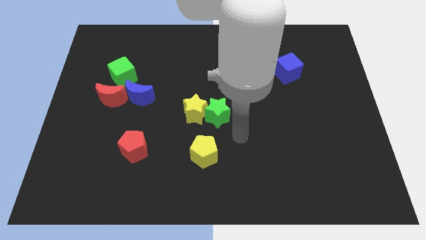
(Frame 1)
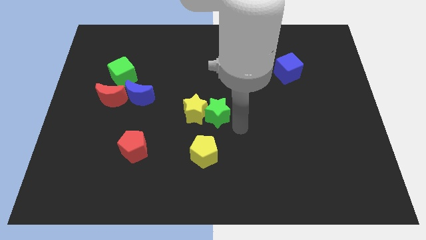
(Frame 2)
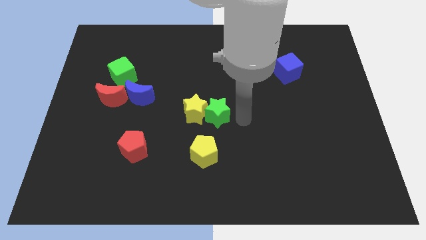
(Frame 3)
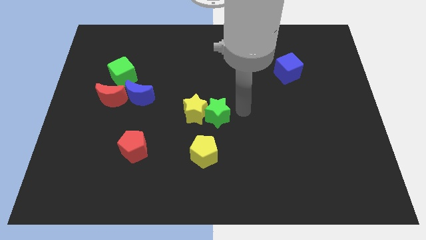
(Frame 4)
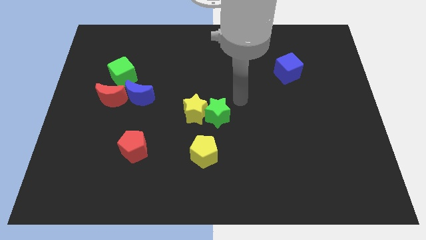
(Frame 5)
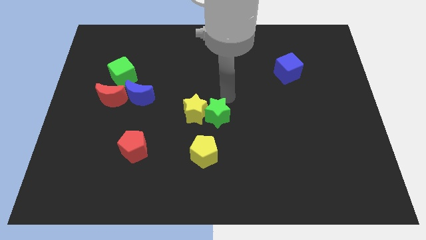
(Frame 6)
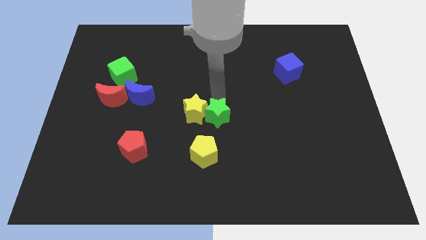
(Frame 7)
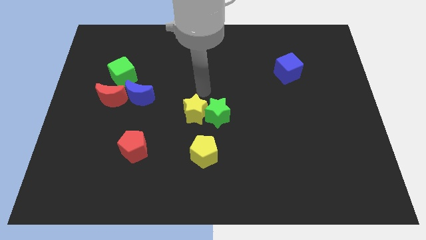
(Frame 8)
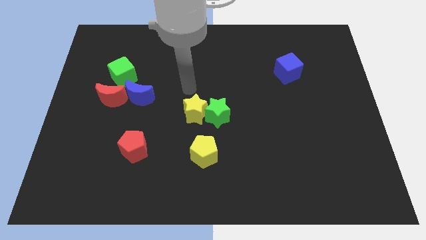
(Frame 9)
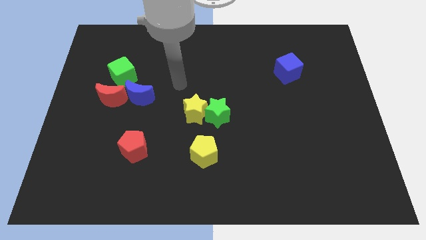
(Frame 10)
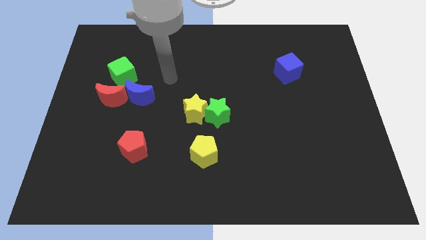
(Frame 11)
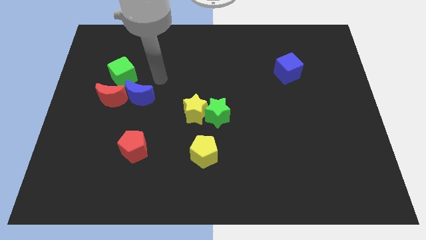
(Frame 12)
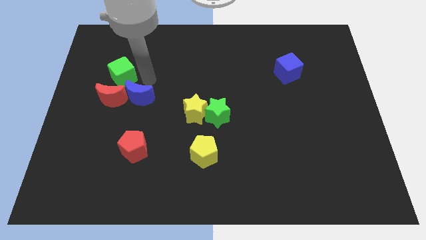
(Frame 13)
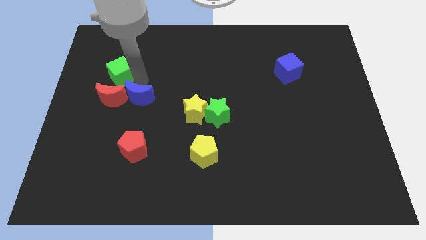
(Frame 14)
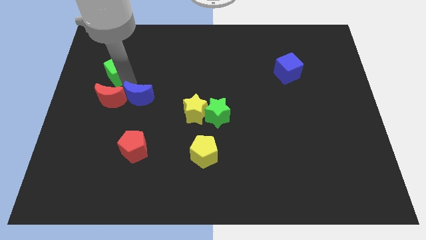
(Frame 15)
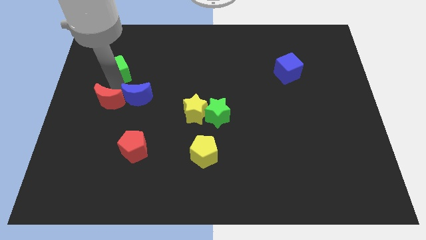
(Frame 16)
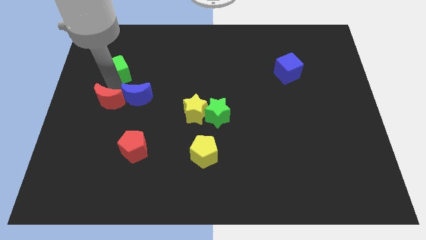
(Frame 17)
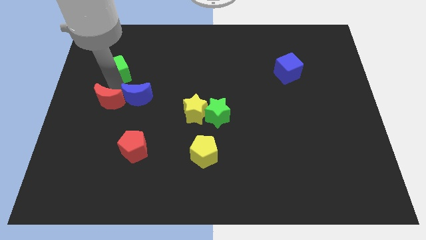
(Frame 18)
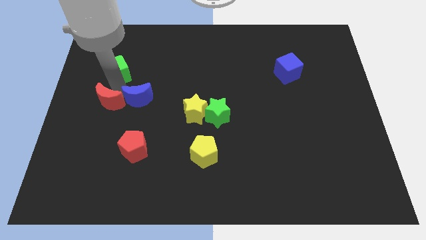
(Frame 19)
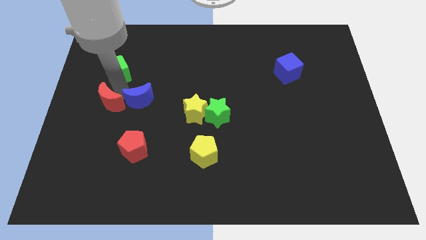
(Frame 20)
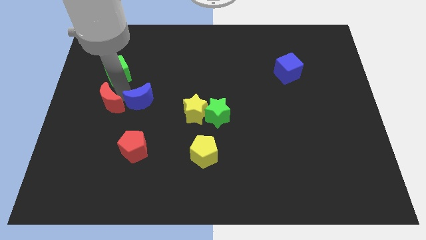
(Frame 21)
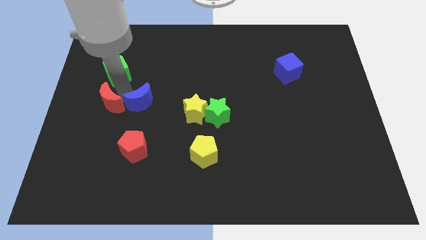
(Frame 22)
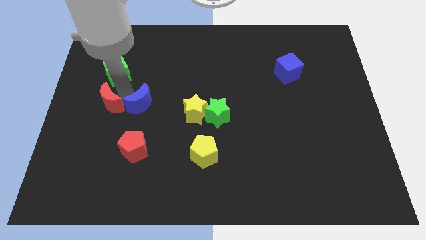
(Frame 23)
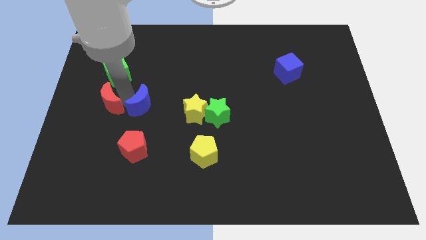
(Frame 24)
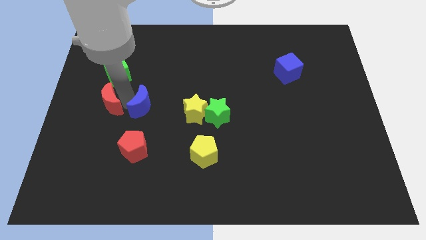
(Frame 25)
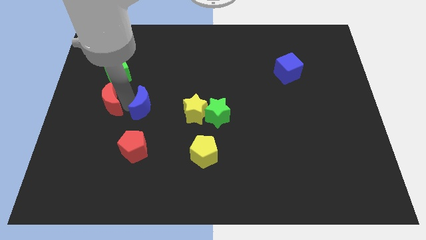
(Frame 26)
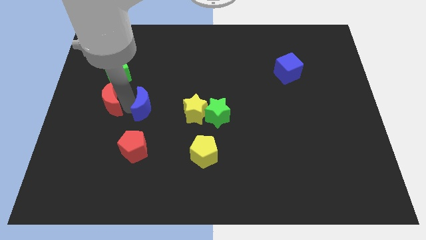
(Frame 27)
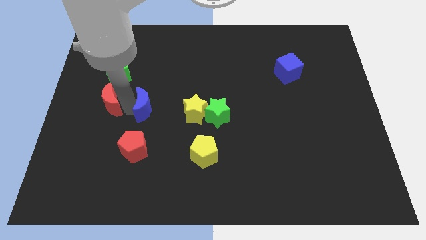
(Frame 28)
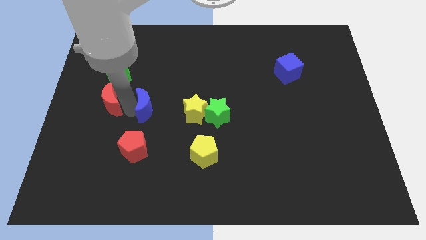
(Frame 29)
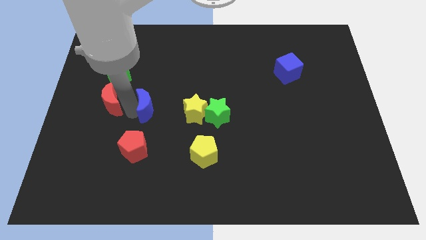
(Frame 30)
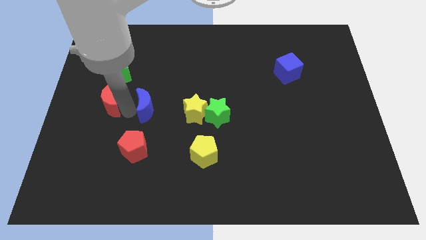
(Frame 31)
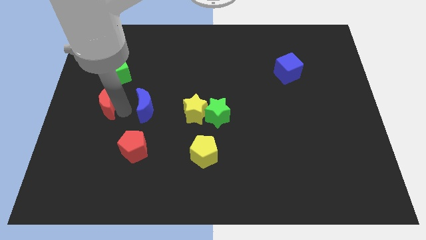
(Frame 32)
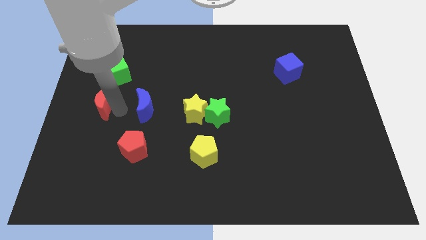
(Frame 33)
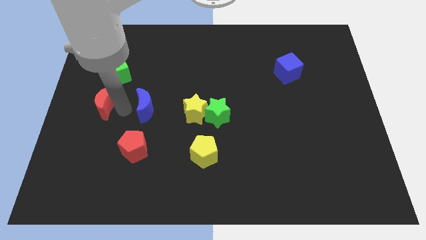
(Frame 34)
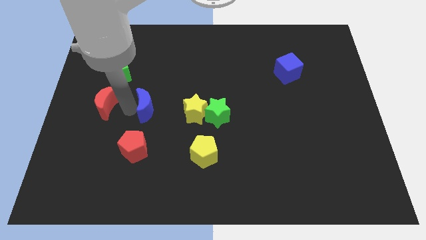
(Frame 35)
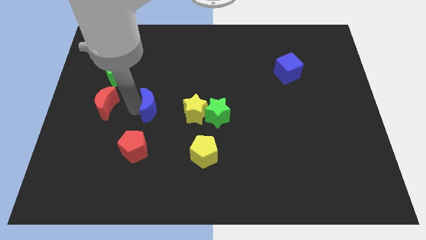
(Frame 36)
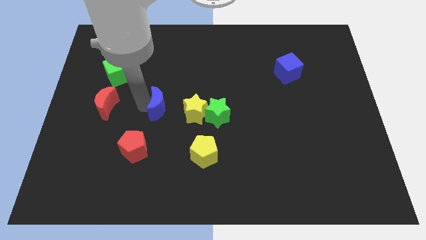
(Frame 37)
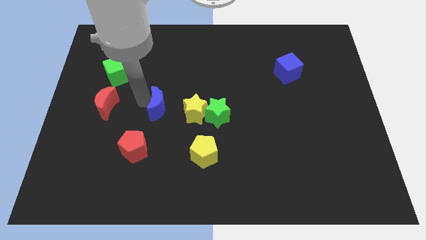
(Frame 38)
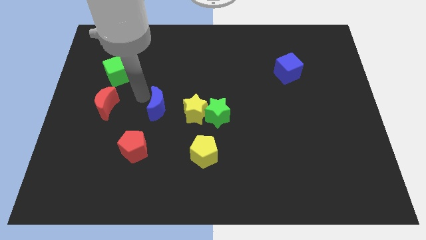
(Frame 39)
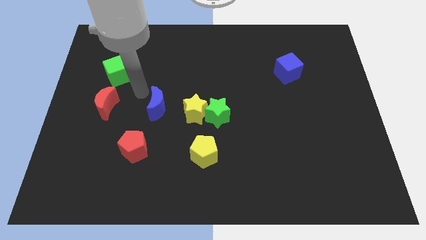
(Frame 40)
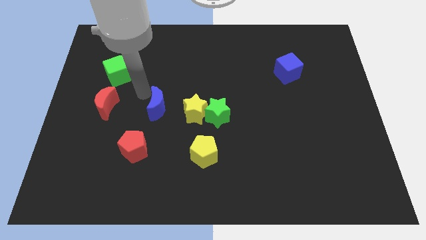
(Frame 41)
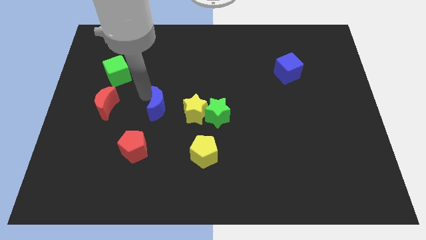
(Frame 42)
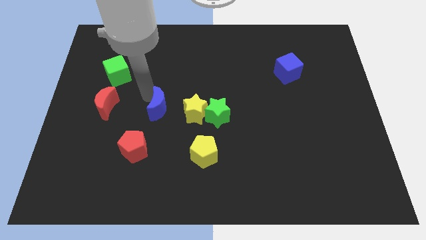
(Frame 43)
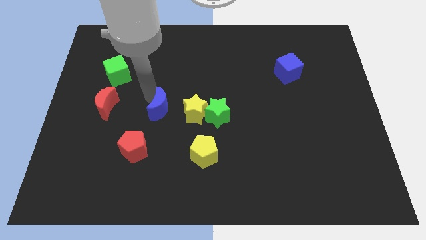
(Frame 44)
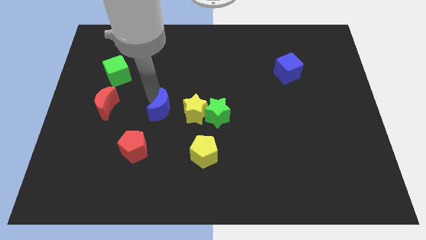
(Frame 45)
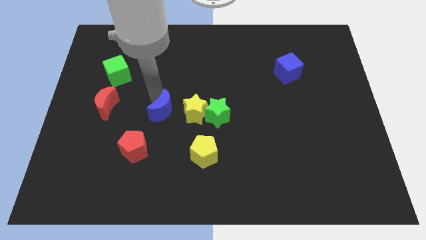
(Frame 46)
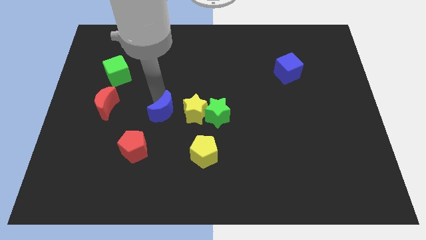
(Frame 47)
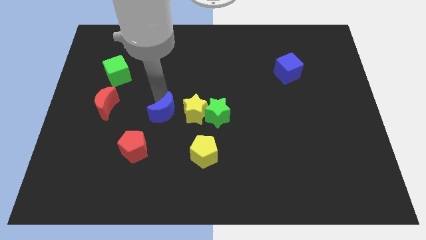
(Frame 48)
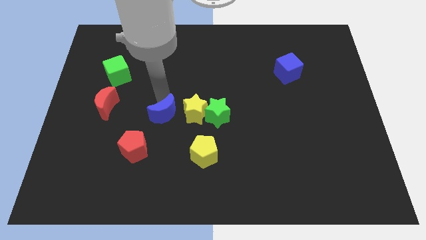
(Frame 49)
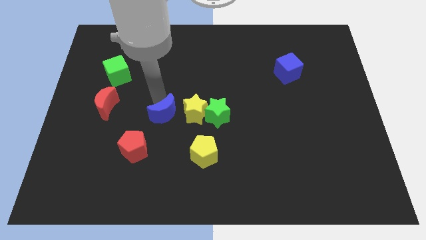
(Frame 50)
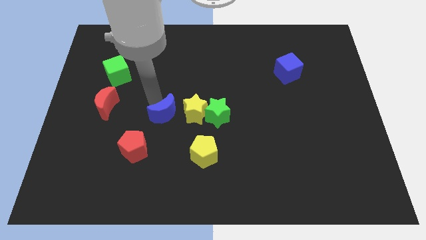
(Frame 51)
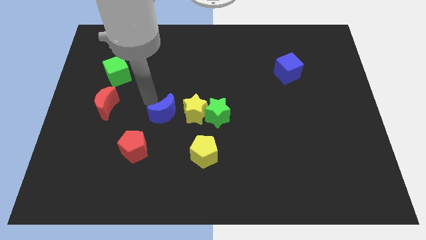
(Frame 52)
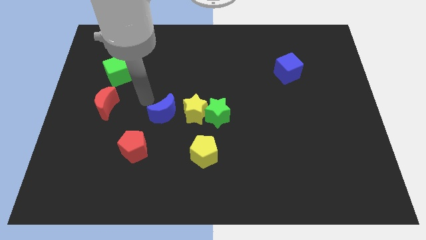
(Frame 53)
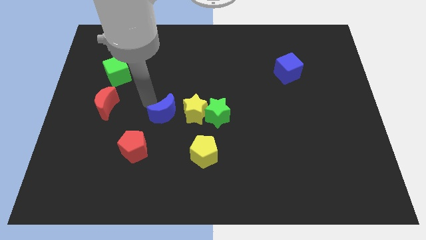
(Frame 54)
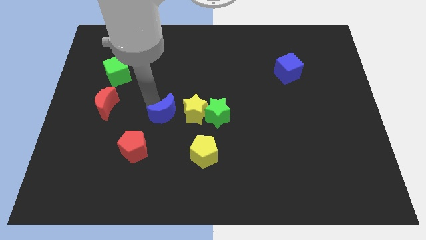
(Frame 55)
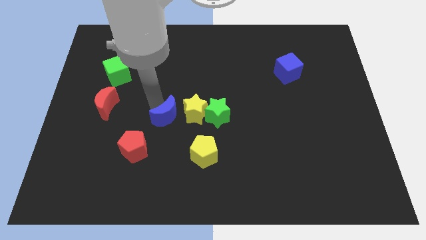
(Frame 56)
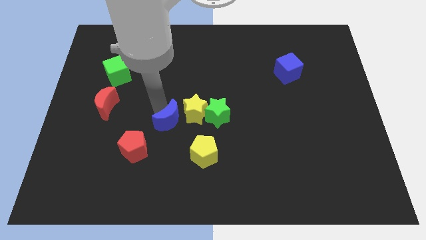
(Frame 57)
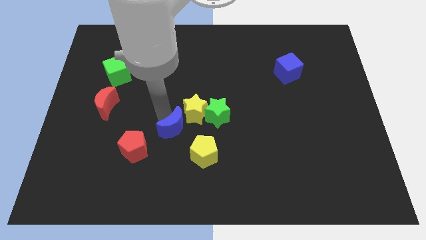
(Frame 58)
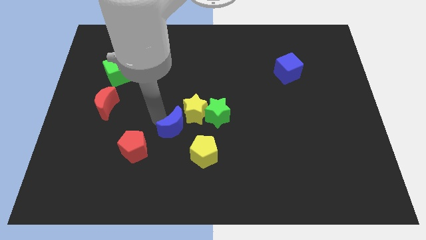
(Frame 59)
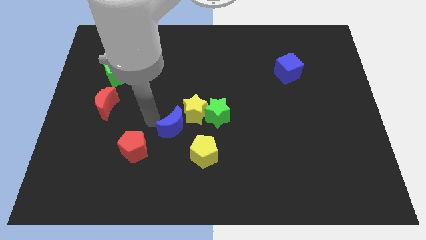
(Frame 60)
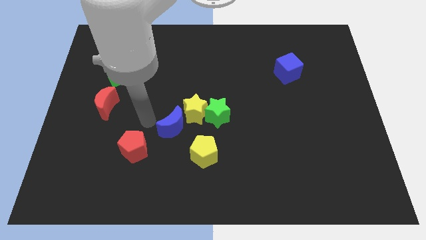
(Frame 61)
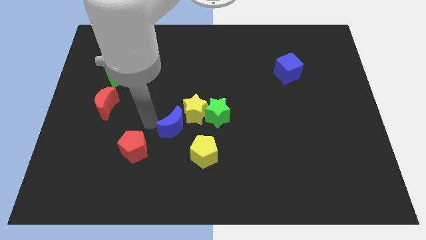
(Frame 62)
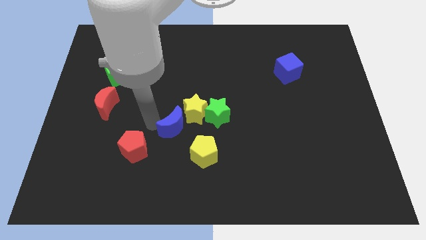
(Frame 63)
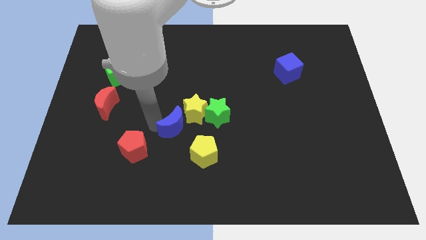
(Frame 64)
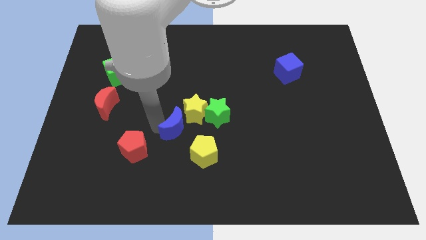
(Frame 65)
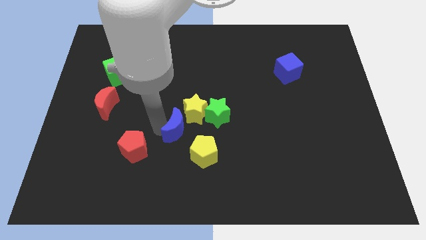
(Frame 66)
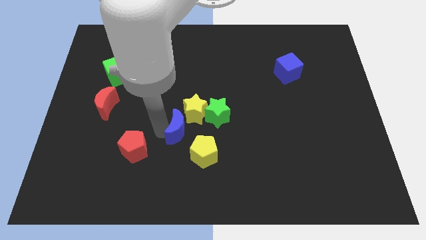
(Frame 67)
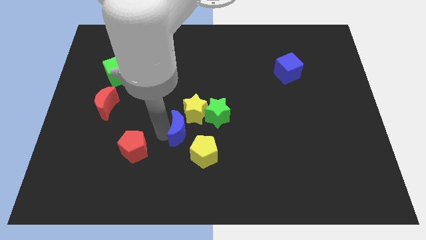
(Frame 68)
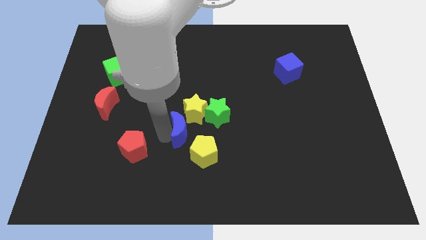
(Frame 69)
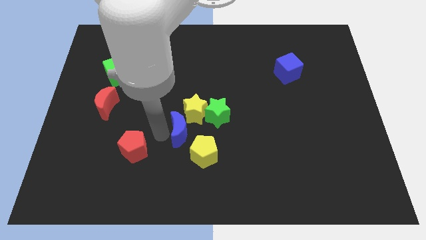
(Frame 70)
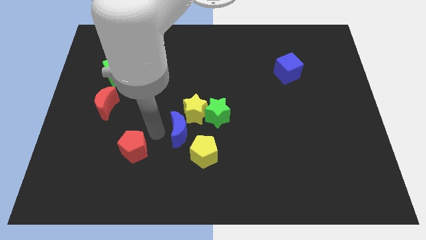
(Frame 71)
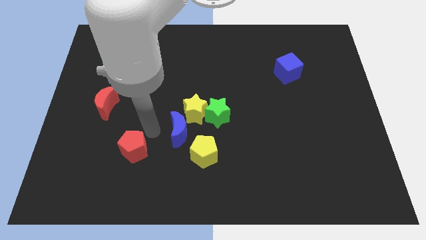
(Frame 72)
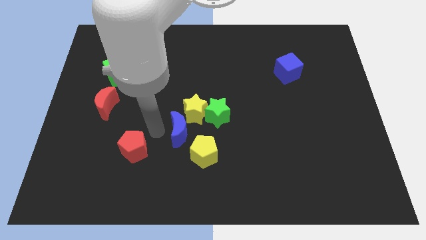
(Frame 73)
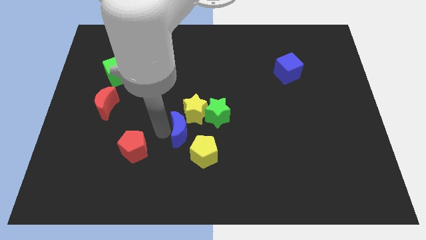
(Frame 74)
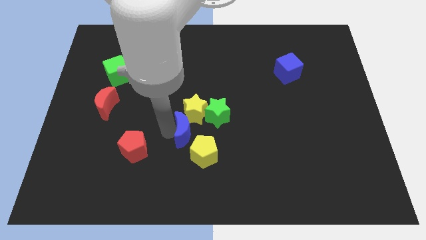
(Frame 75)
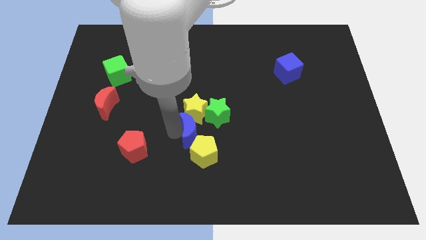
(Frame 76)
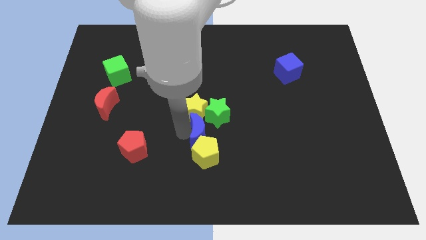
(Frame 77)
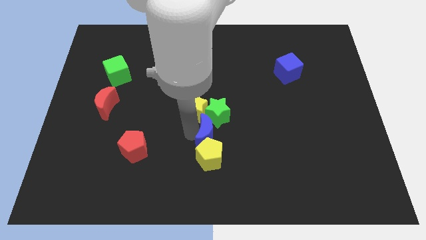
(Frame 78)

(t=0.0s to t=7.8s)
move the blue moon diagonally up and to the right of the yellow pentagon
